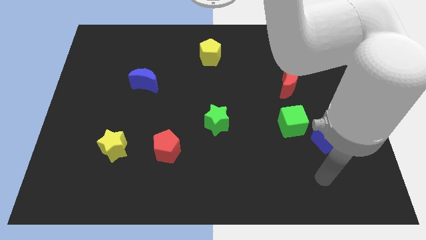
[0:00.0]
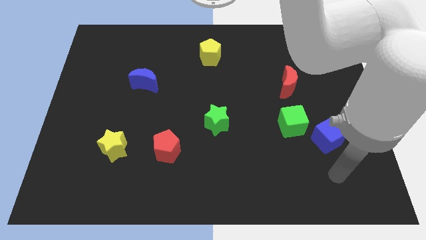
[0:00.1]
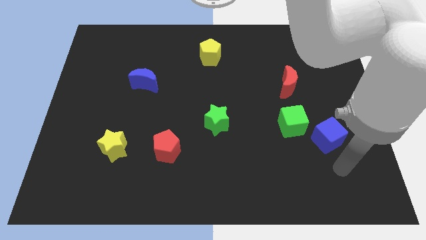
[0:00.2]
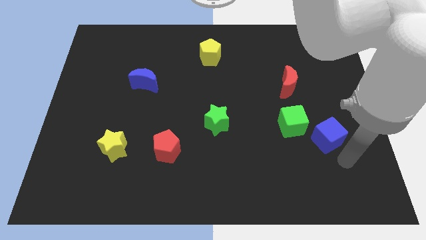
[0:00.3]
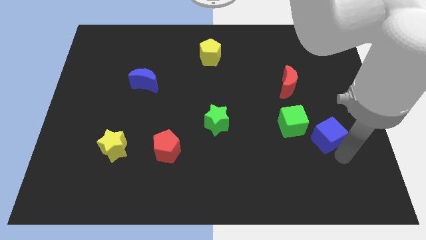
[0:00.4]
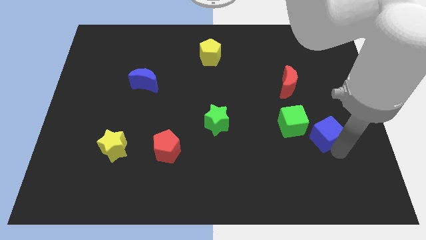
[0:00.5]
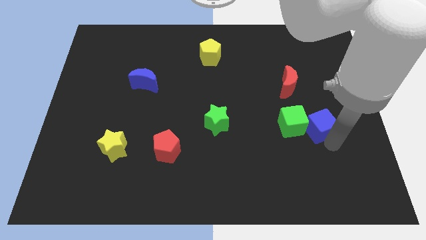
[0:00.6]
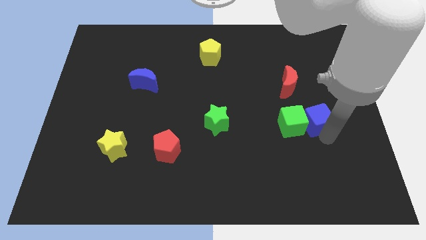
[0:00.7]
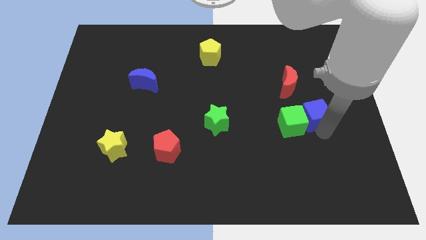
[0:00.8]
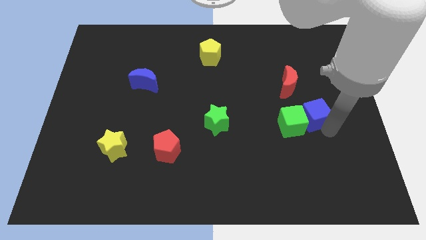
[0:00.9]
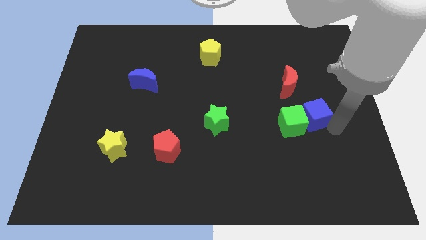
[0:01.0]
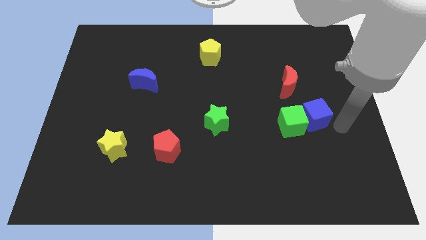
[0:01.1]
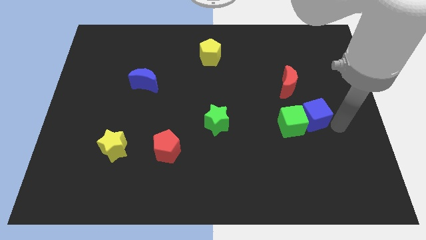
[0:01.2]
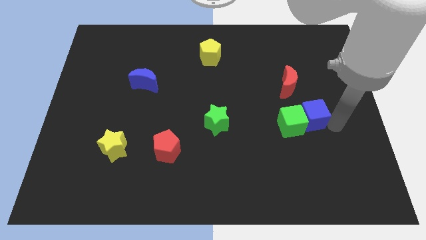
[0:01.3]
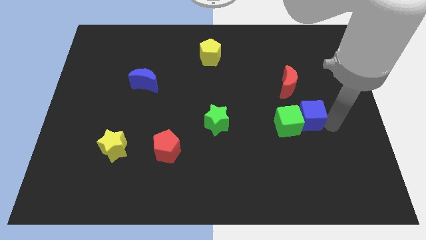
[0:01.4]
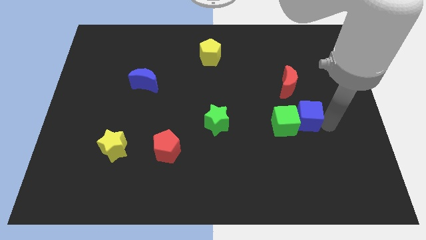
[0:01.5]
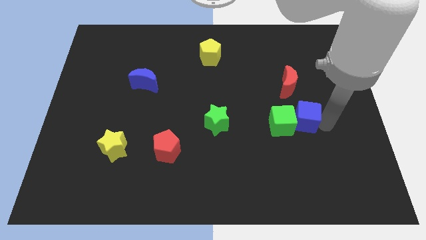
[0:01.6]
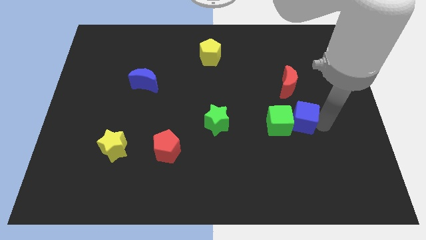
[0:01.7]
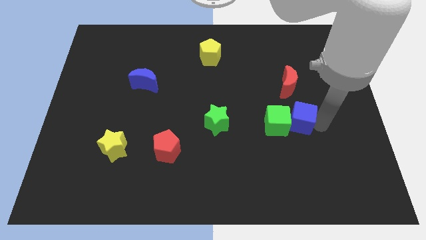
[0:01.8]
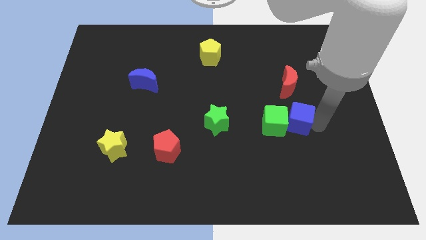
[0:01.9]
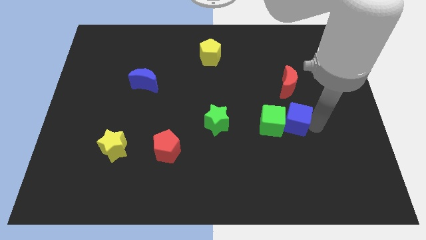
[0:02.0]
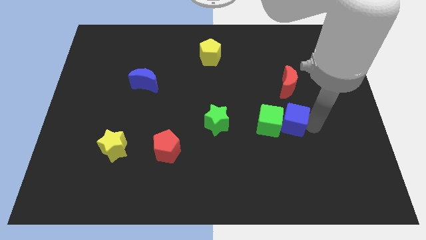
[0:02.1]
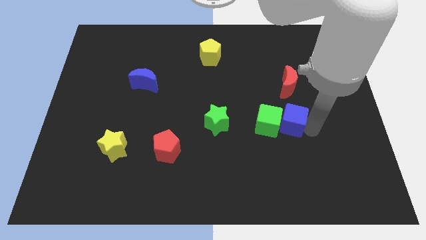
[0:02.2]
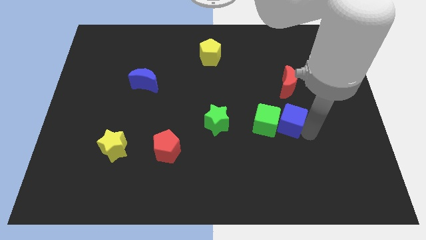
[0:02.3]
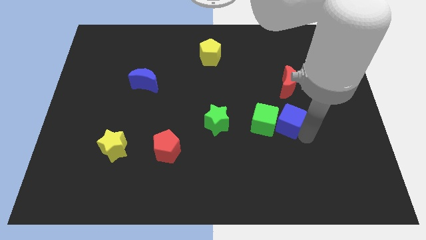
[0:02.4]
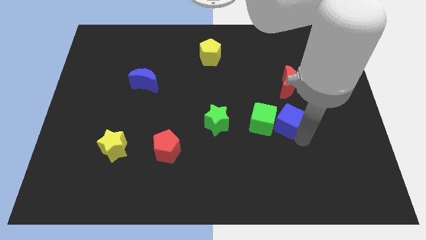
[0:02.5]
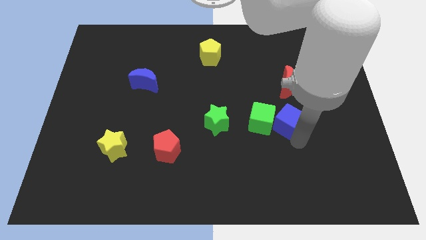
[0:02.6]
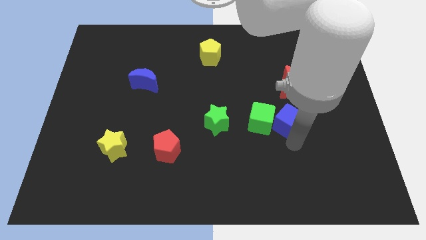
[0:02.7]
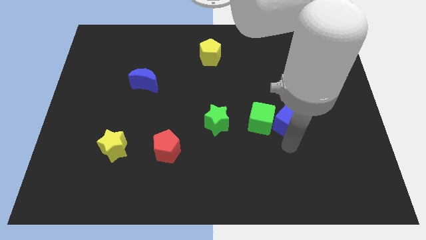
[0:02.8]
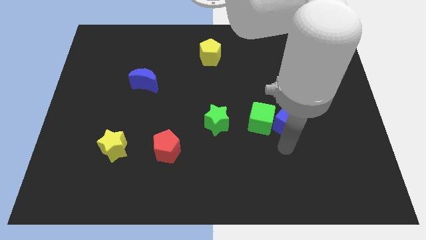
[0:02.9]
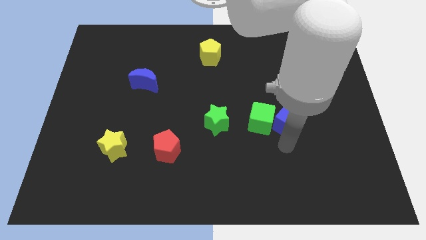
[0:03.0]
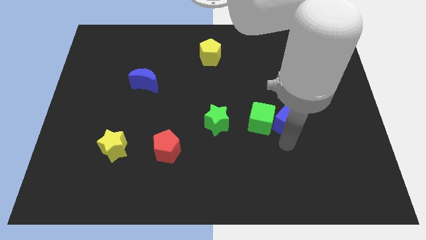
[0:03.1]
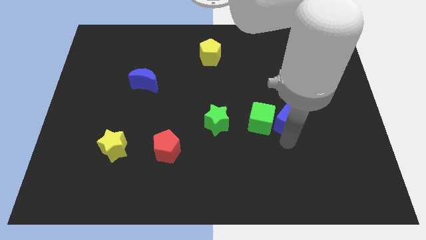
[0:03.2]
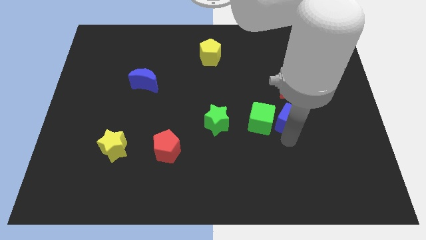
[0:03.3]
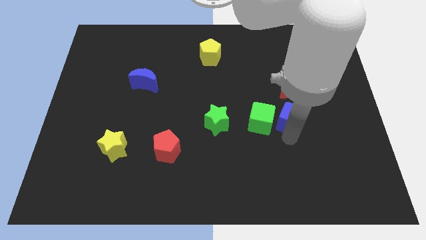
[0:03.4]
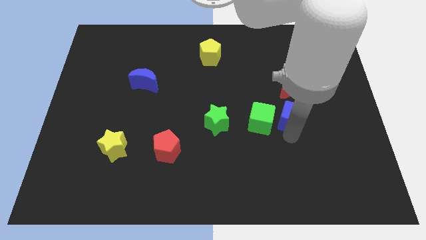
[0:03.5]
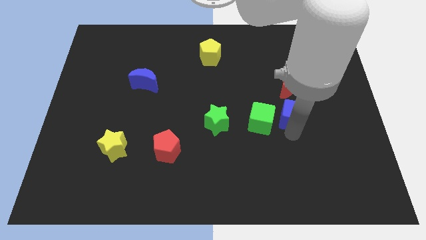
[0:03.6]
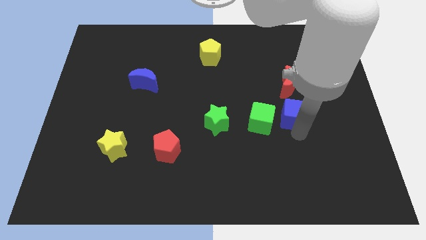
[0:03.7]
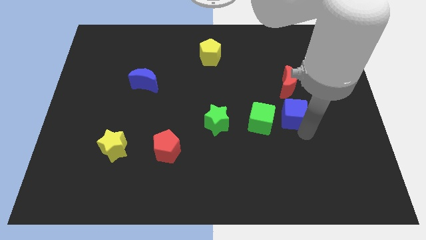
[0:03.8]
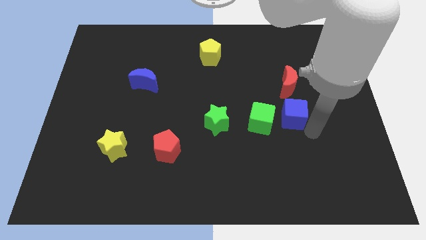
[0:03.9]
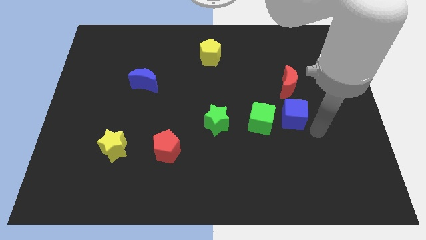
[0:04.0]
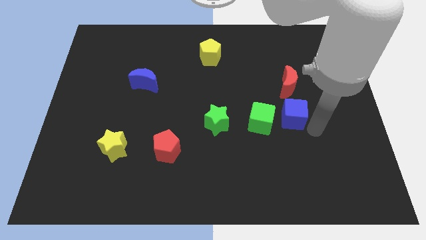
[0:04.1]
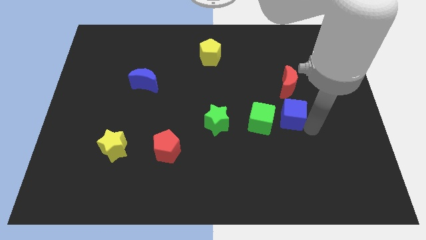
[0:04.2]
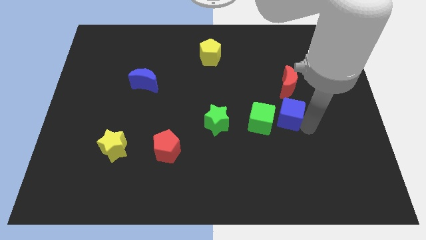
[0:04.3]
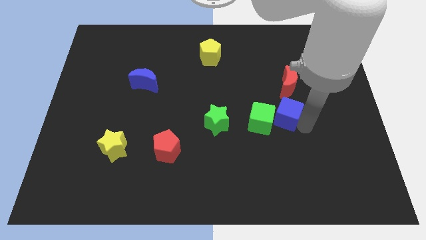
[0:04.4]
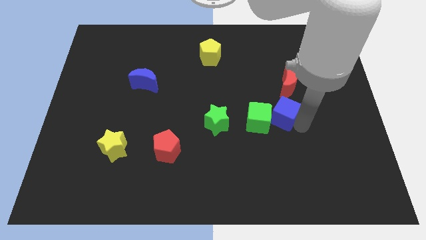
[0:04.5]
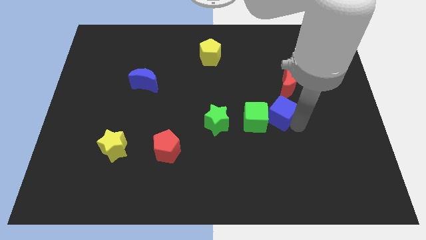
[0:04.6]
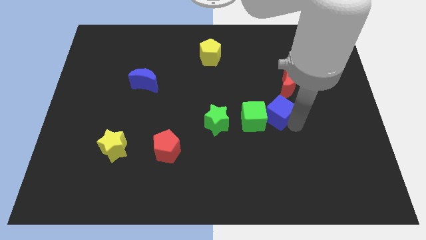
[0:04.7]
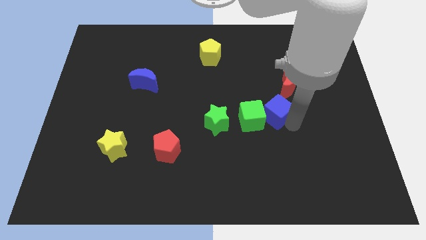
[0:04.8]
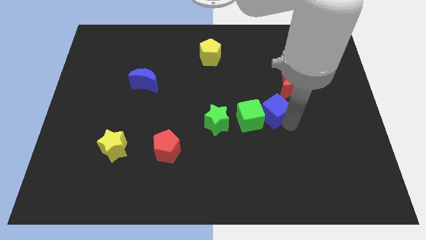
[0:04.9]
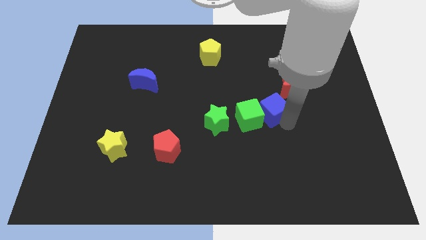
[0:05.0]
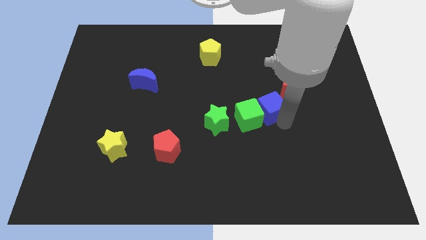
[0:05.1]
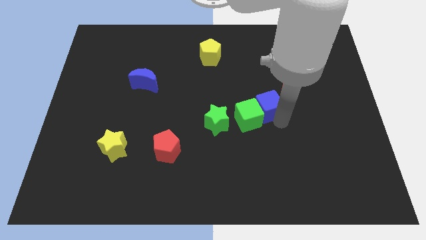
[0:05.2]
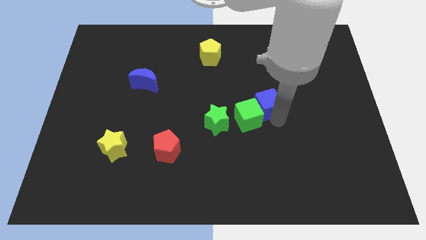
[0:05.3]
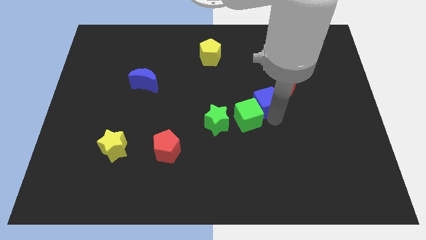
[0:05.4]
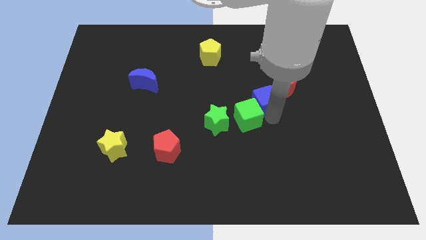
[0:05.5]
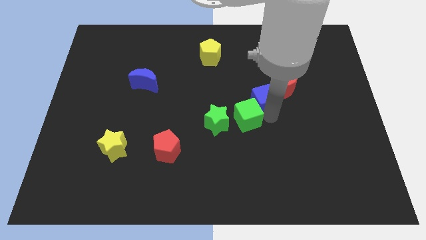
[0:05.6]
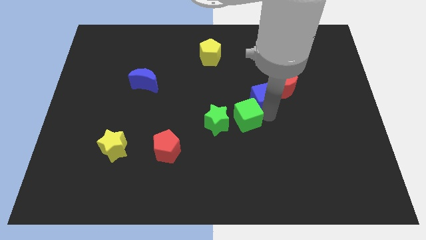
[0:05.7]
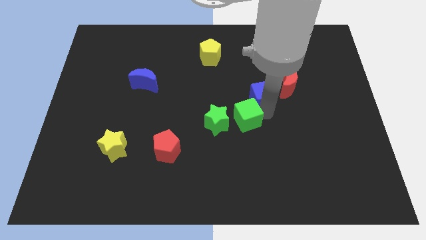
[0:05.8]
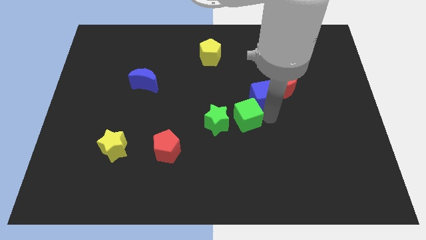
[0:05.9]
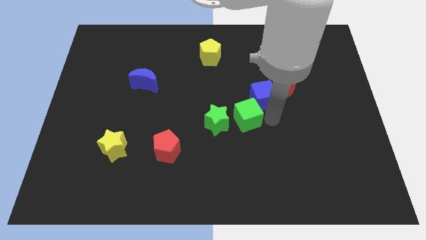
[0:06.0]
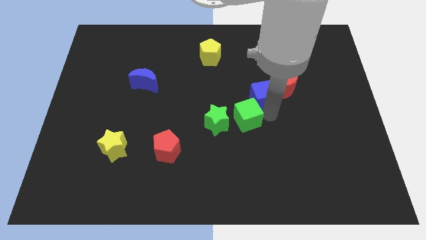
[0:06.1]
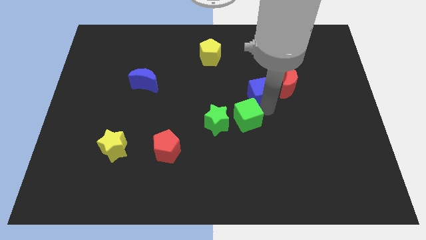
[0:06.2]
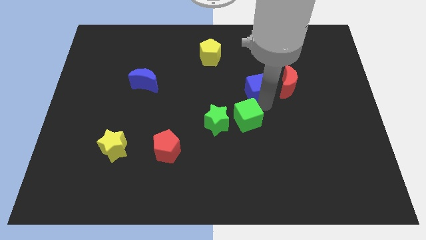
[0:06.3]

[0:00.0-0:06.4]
move the blue cube up and left diagonally

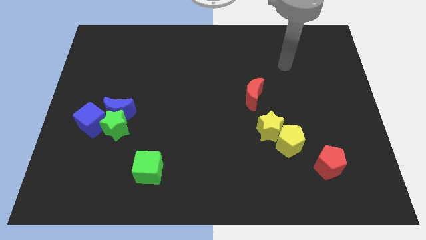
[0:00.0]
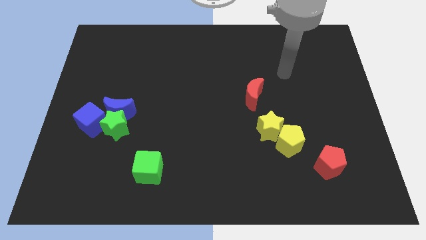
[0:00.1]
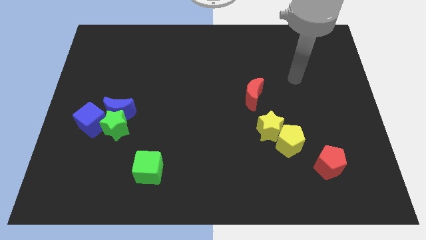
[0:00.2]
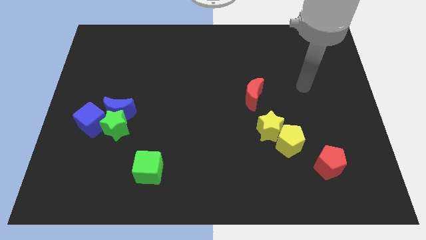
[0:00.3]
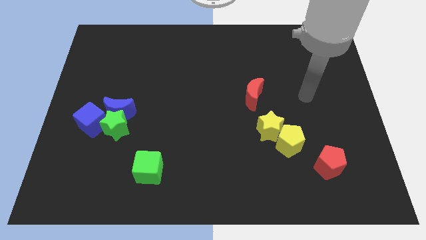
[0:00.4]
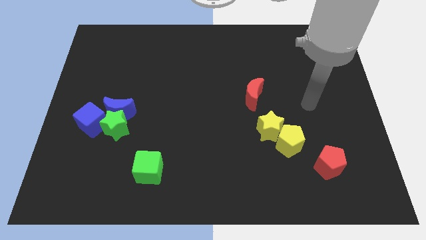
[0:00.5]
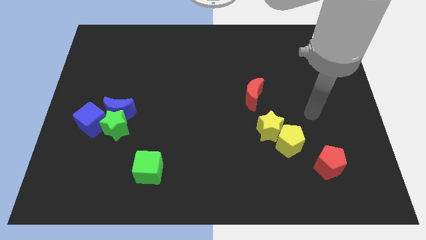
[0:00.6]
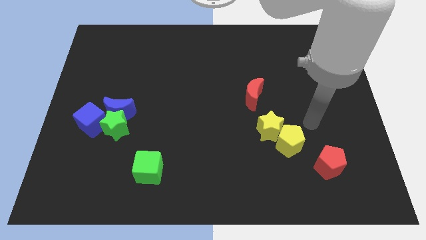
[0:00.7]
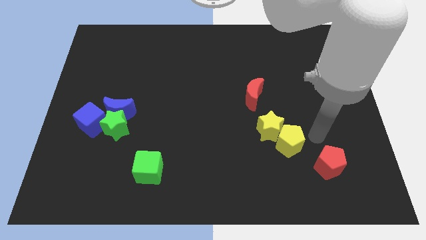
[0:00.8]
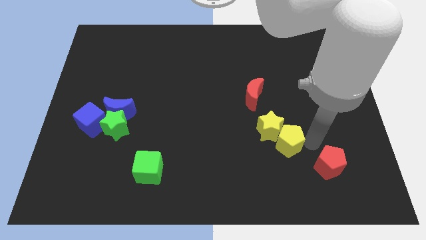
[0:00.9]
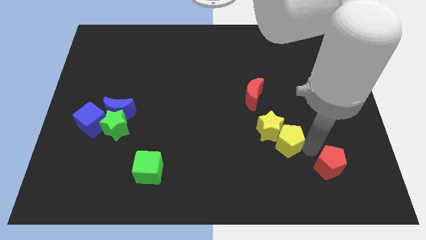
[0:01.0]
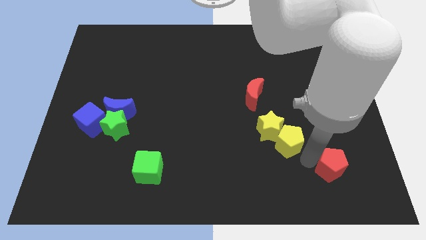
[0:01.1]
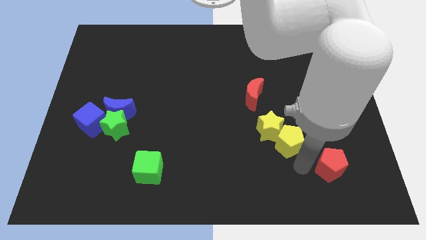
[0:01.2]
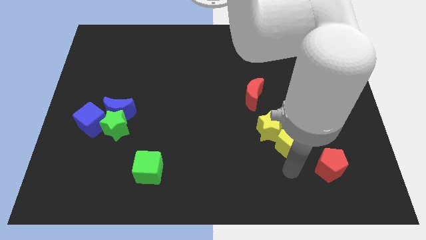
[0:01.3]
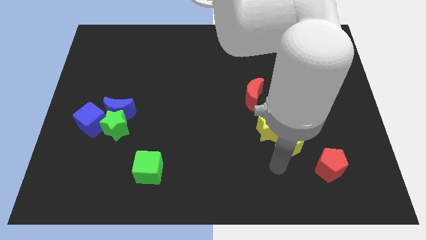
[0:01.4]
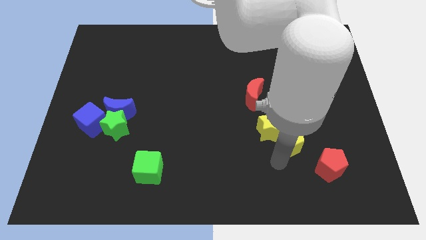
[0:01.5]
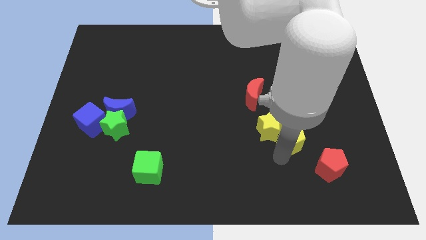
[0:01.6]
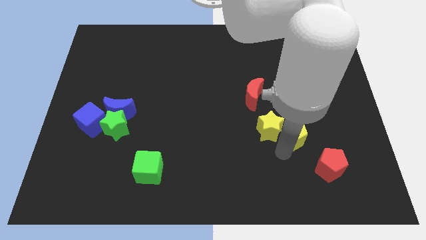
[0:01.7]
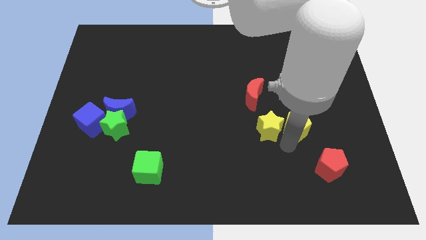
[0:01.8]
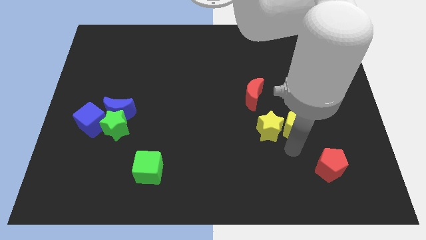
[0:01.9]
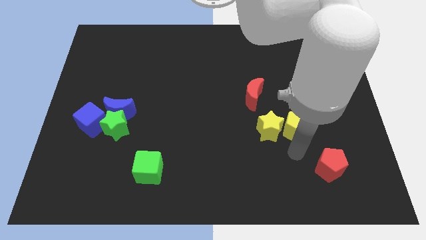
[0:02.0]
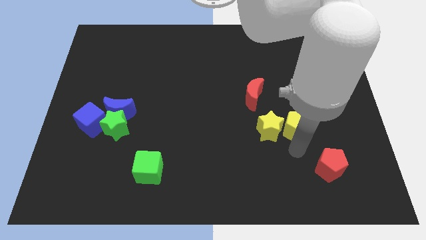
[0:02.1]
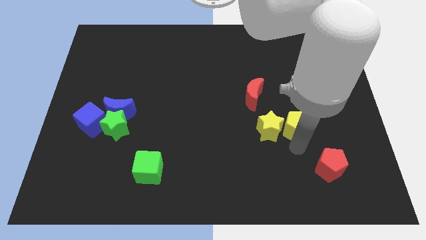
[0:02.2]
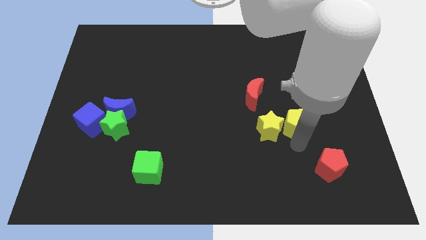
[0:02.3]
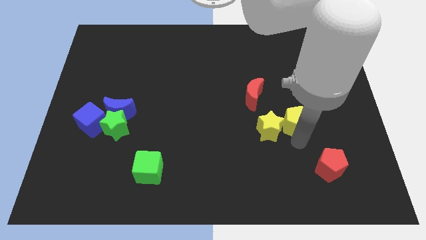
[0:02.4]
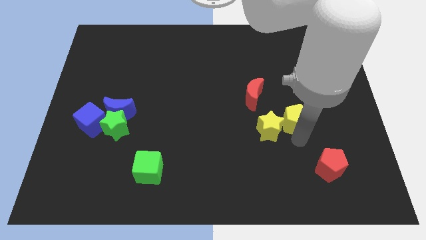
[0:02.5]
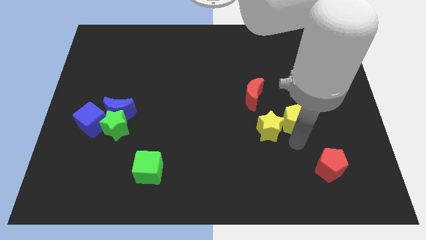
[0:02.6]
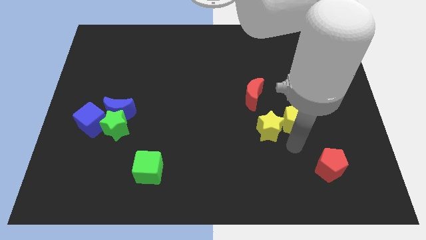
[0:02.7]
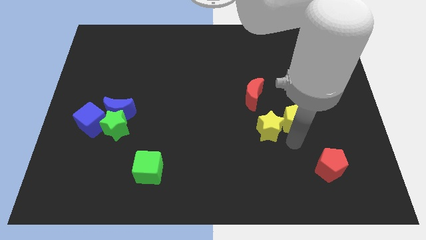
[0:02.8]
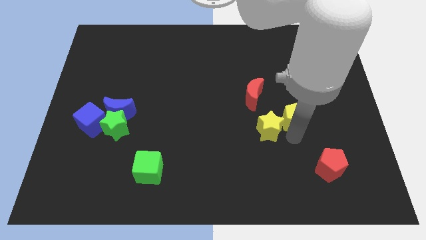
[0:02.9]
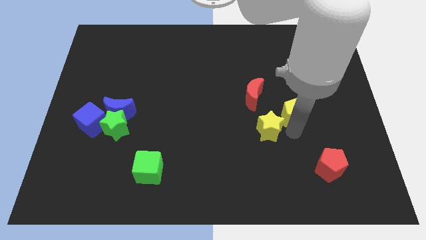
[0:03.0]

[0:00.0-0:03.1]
slide the yellow pentagon up slightly
